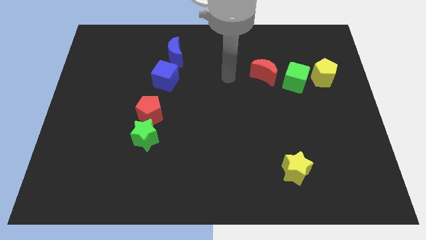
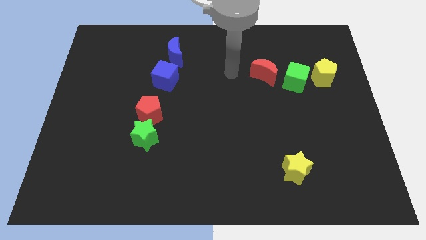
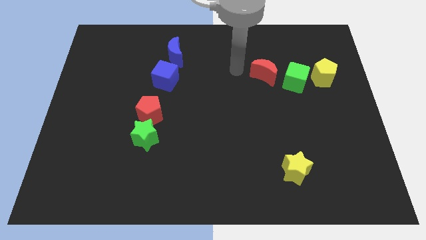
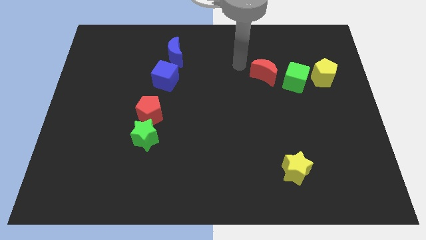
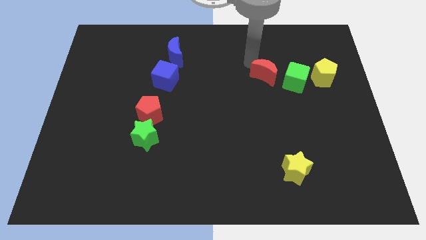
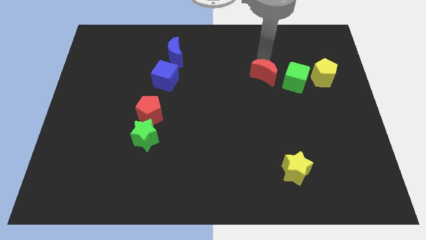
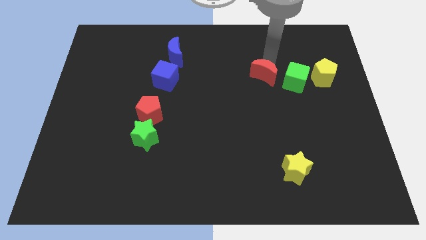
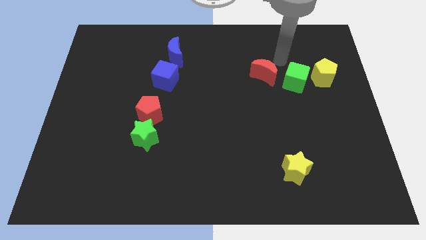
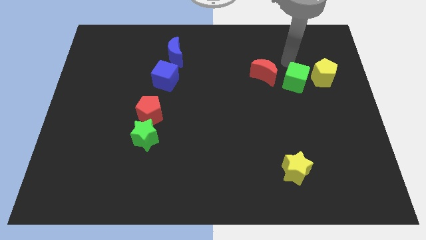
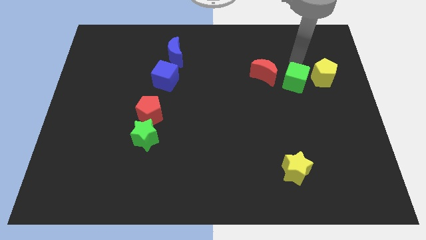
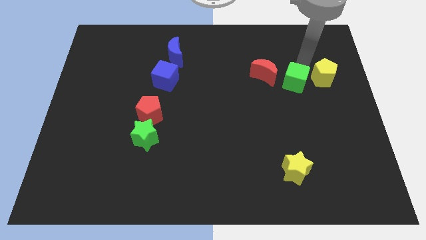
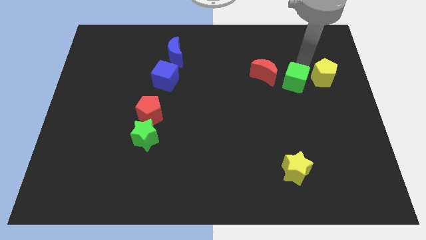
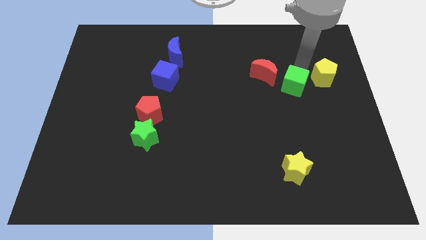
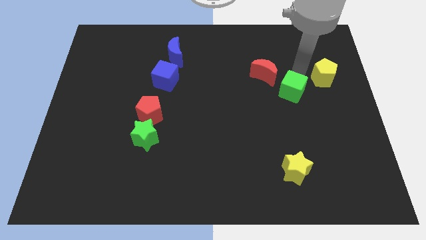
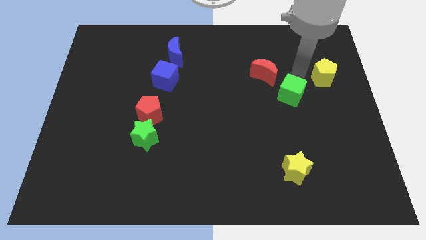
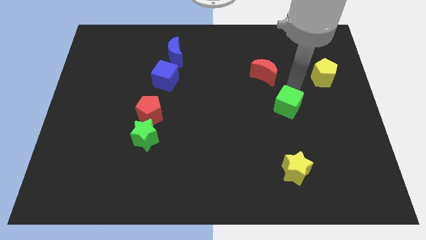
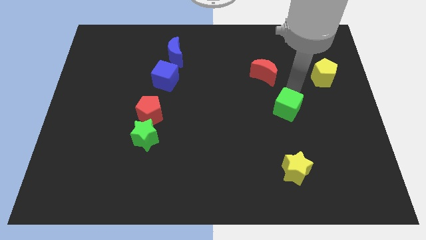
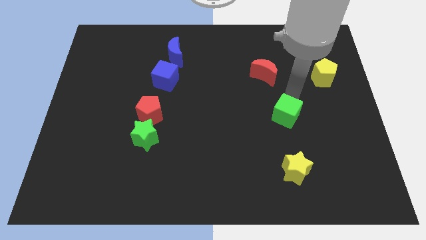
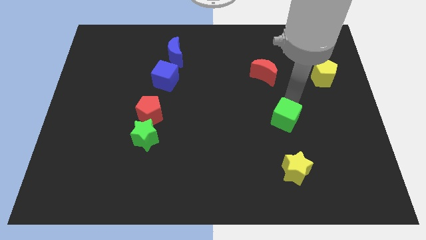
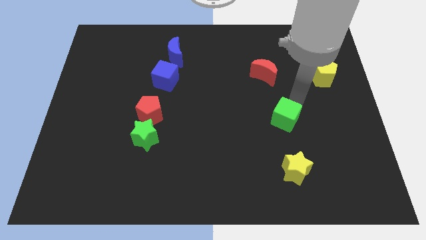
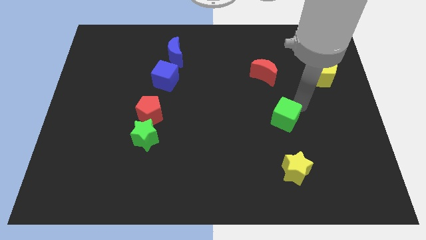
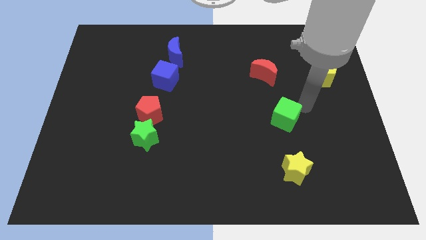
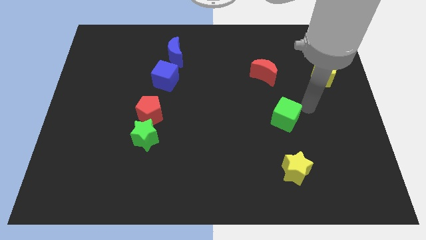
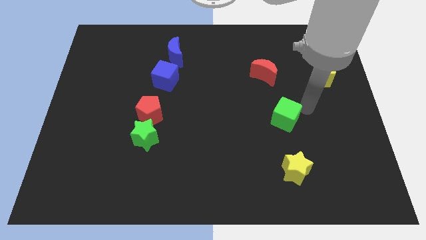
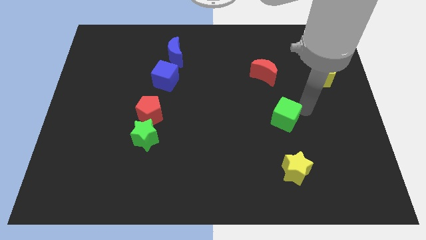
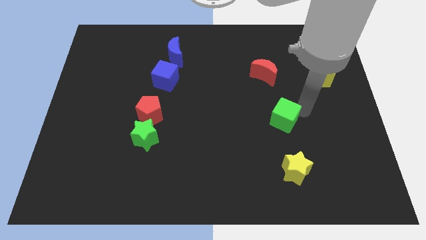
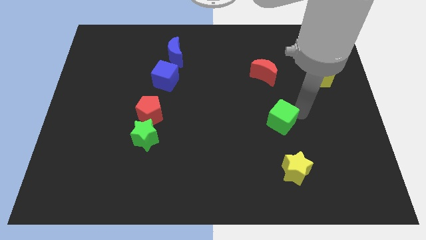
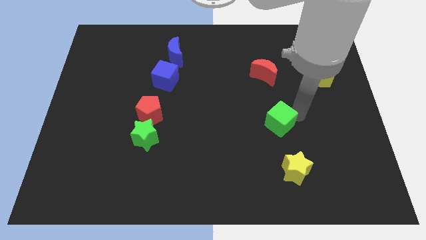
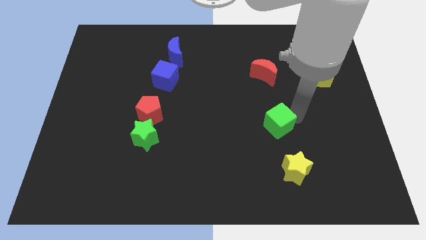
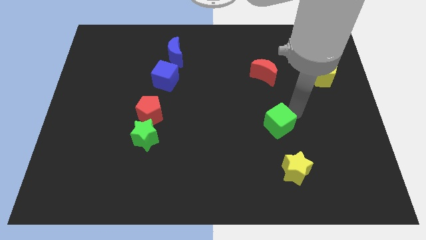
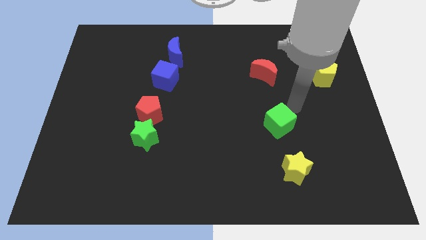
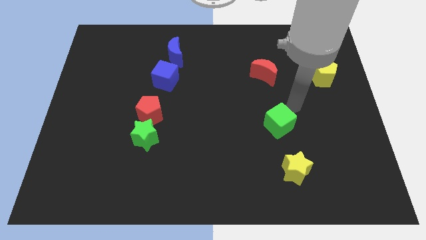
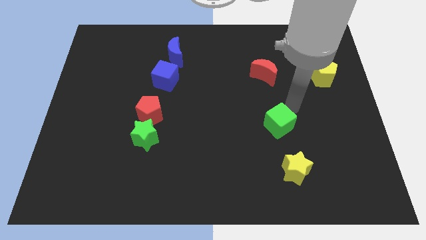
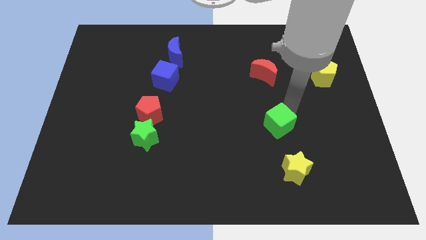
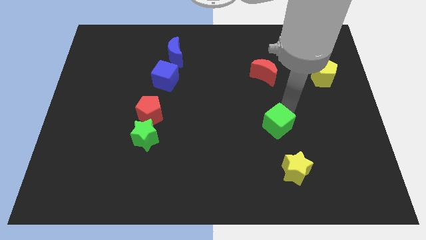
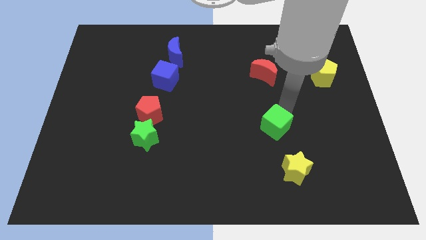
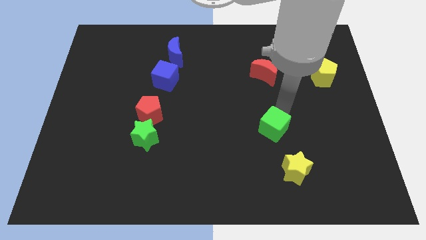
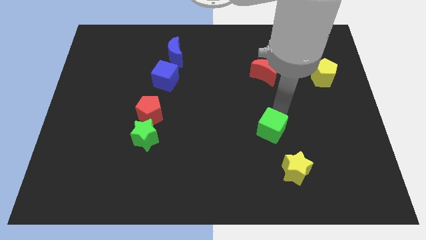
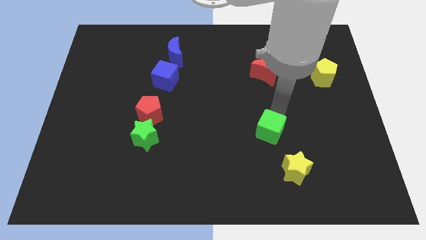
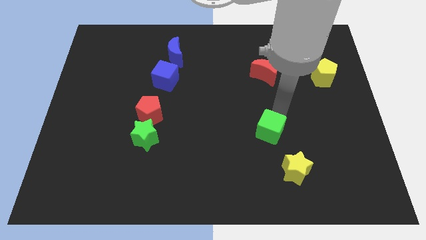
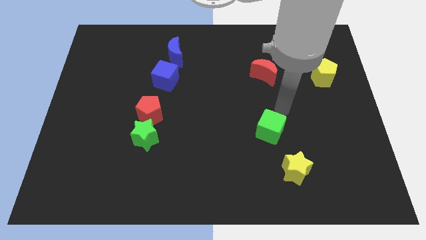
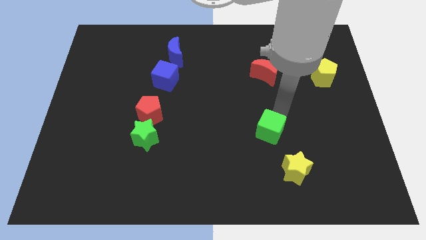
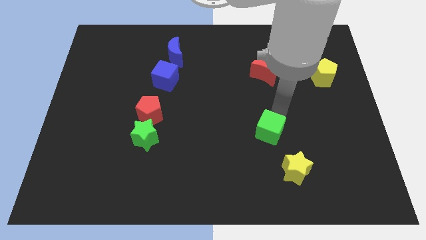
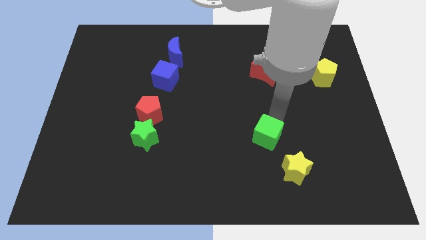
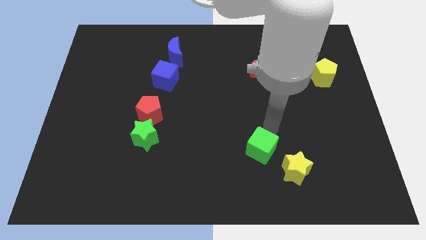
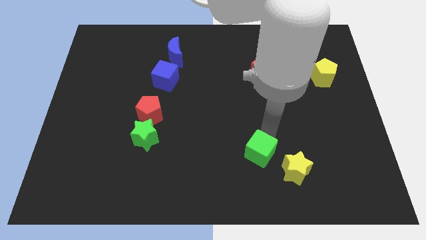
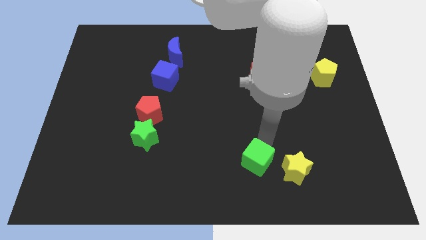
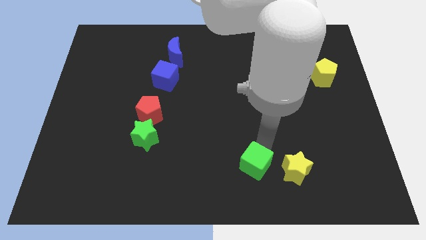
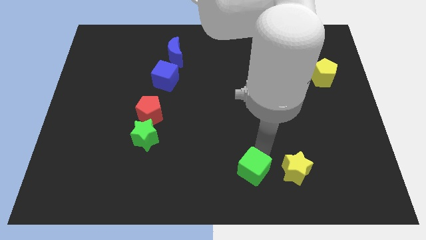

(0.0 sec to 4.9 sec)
put the green cube to the bottom side

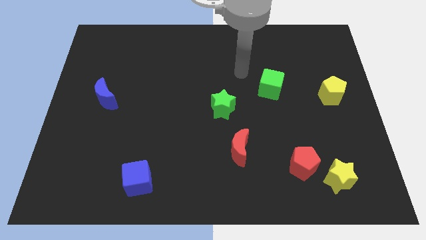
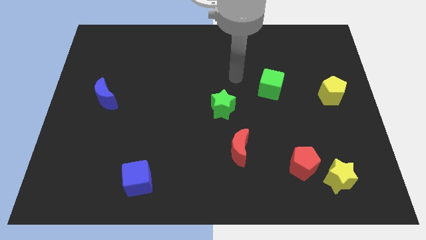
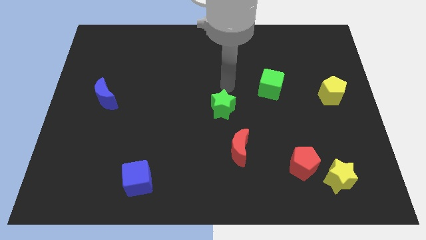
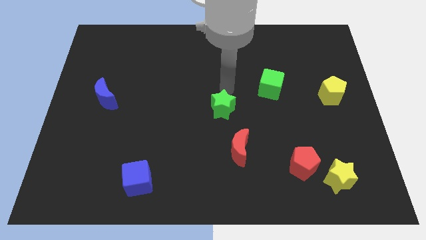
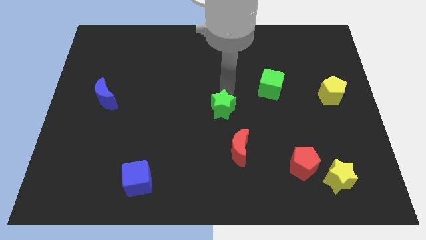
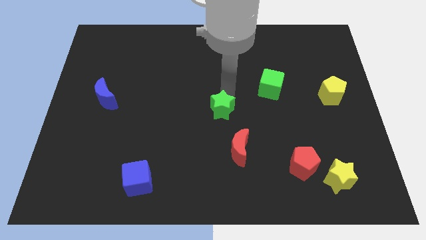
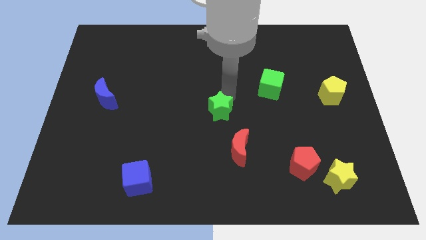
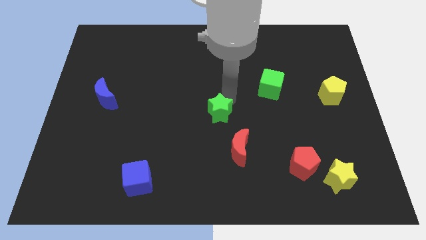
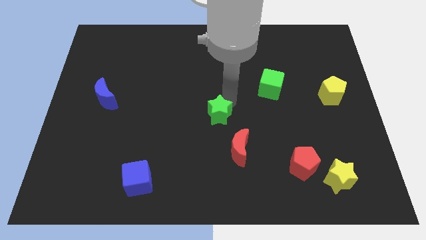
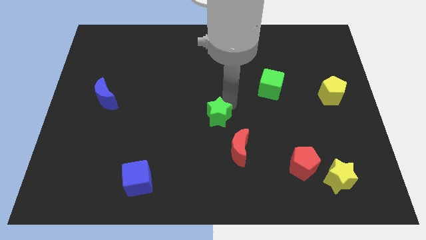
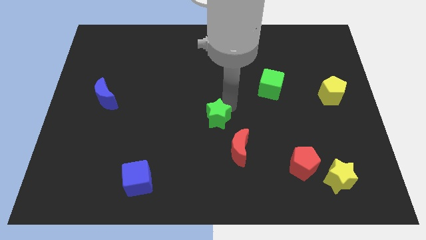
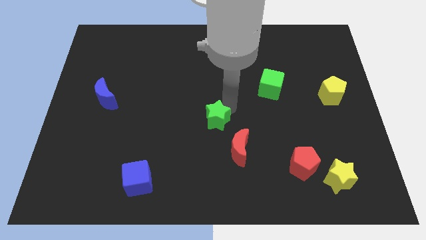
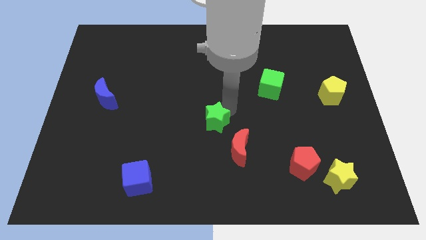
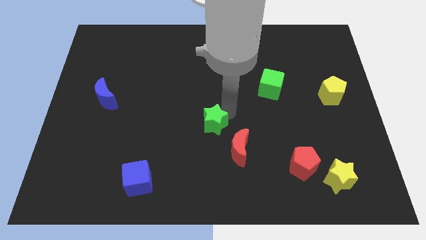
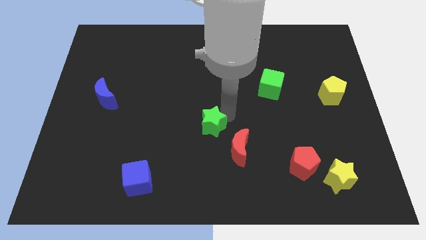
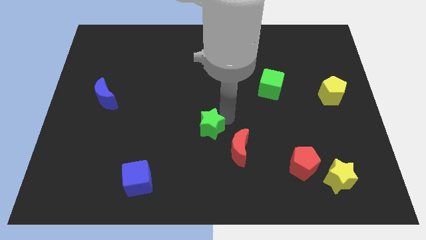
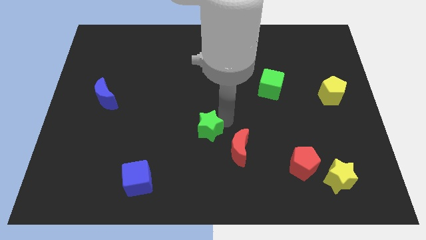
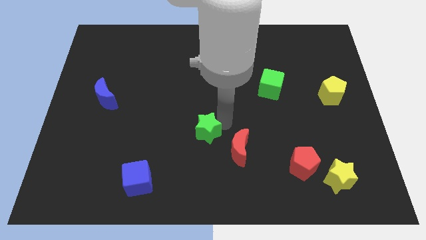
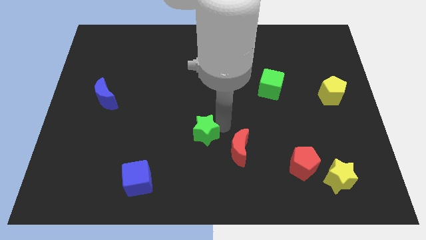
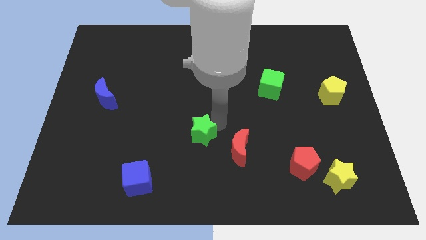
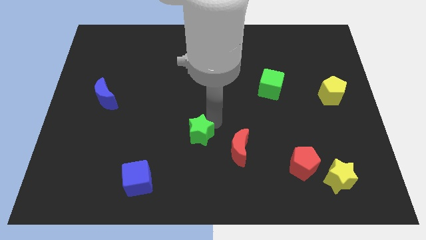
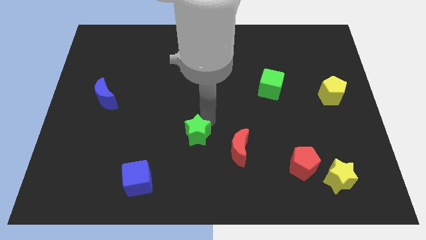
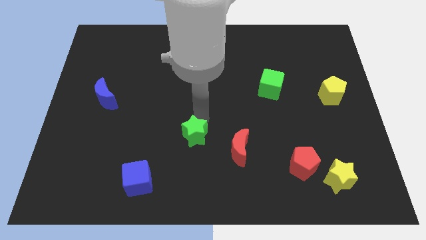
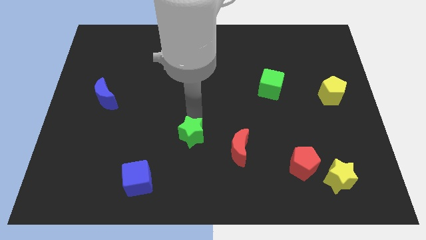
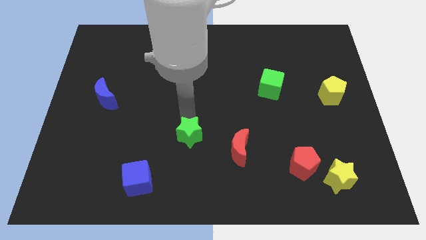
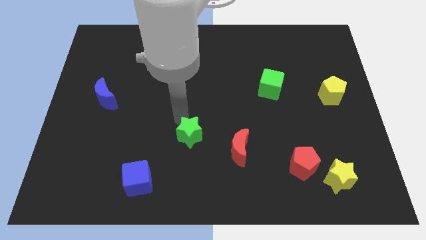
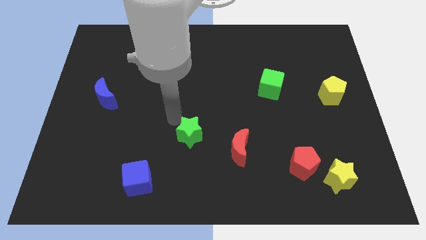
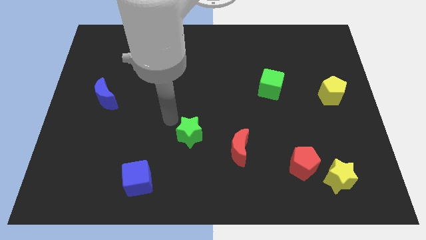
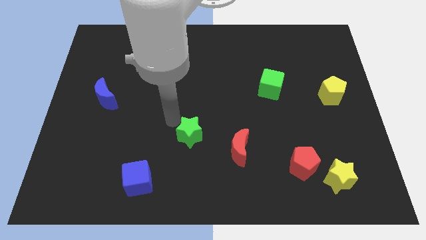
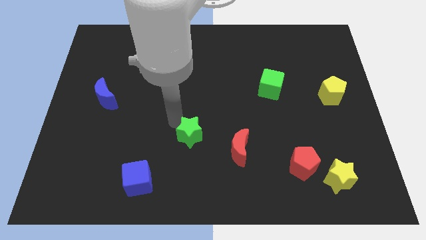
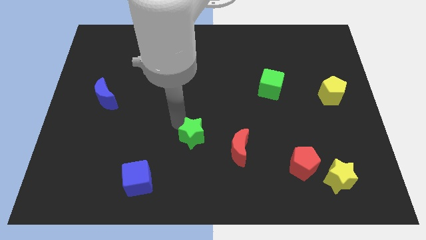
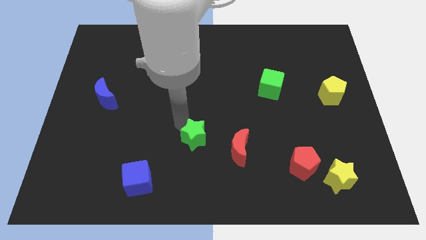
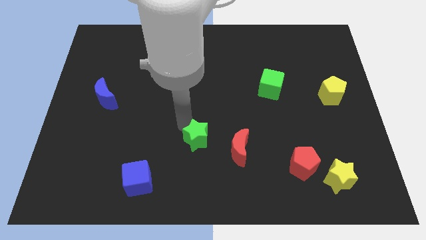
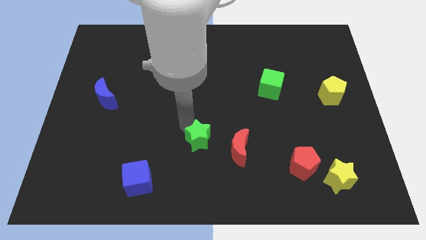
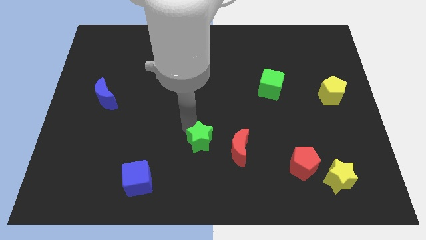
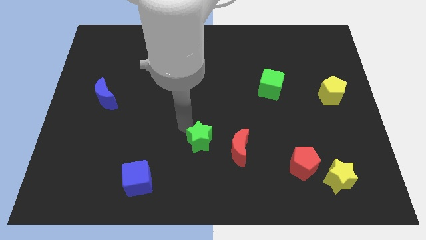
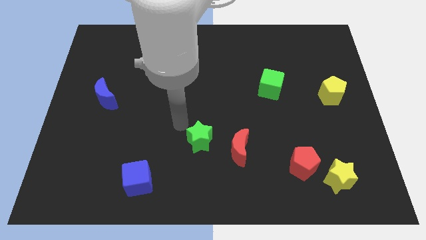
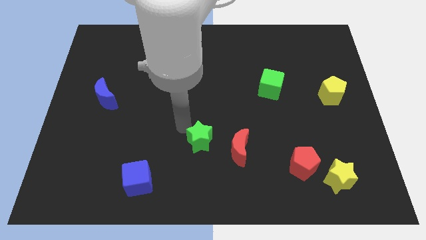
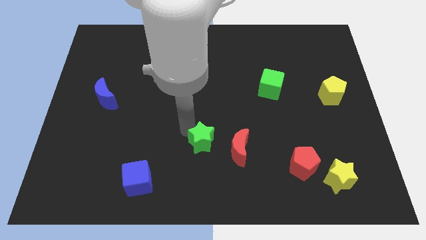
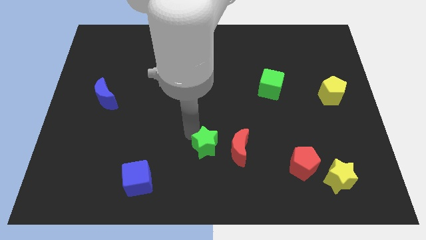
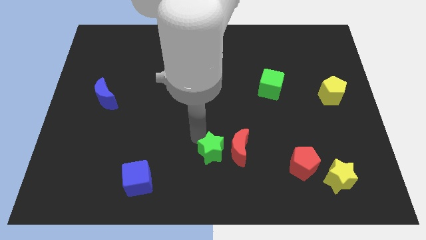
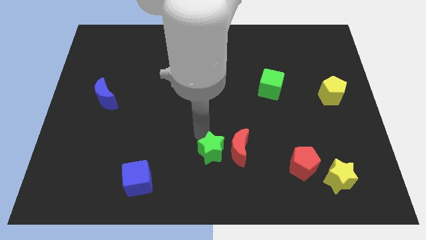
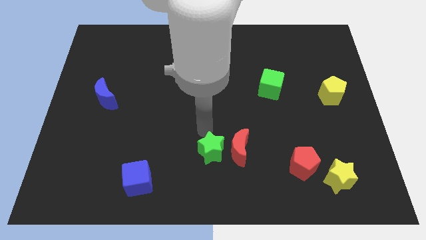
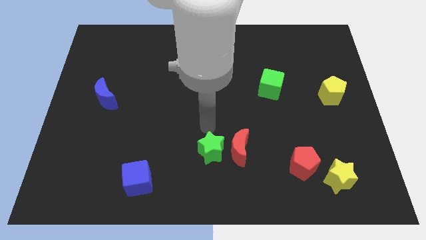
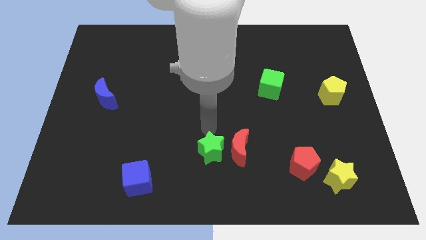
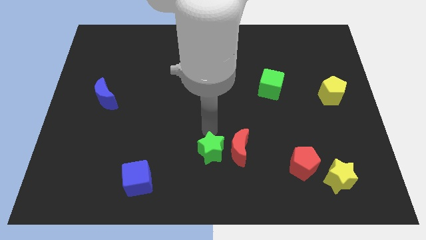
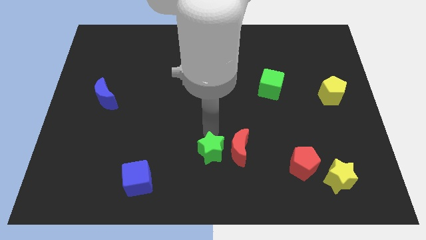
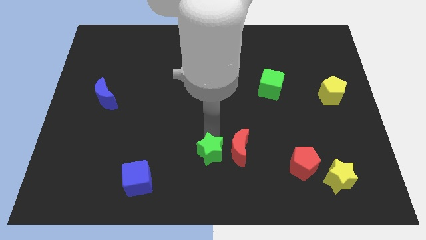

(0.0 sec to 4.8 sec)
push the green star to the bottom side
